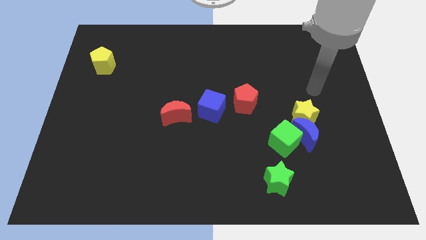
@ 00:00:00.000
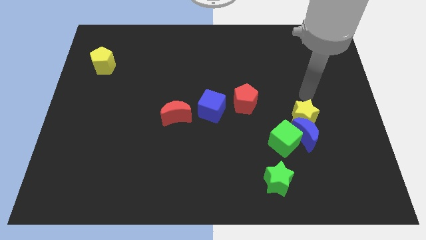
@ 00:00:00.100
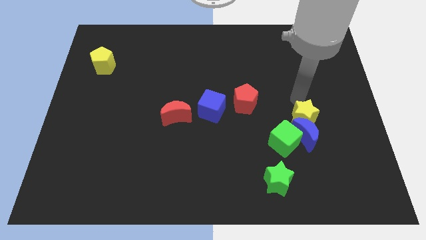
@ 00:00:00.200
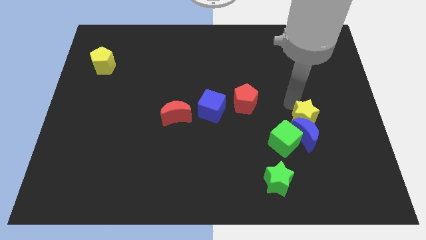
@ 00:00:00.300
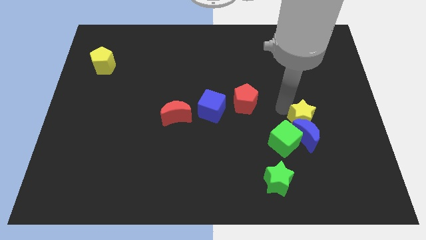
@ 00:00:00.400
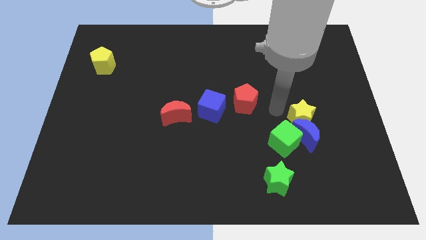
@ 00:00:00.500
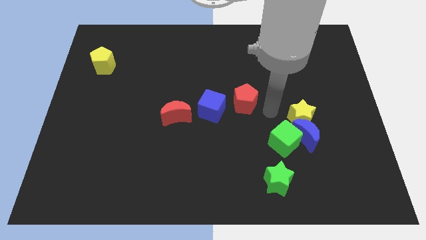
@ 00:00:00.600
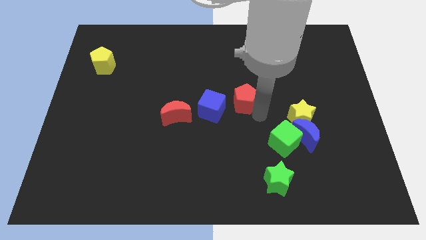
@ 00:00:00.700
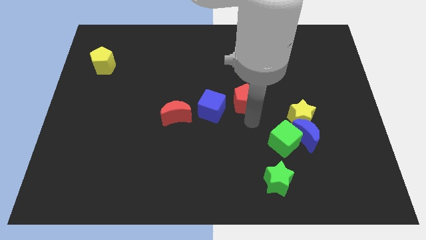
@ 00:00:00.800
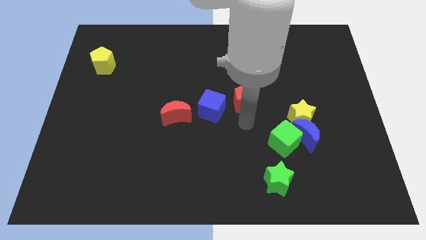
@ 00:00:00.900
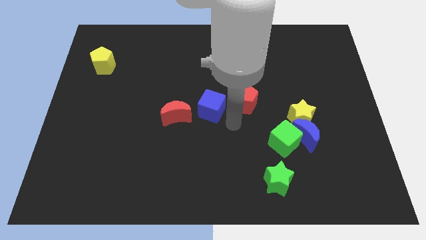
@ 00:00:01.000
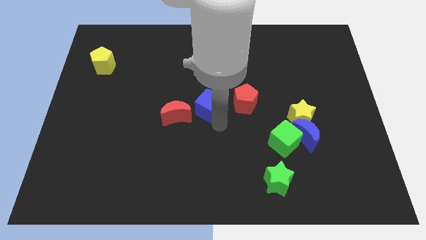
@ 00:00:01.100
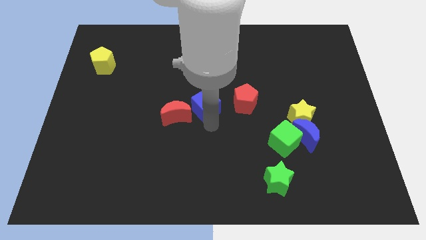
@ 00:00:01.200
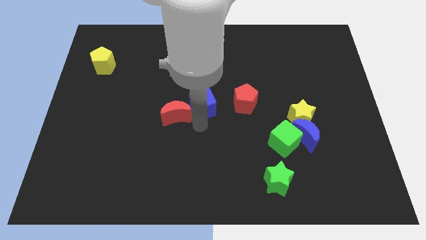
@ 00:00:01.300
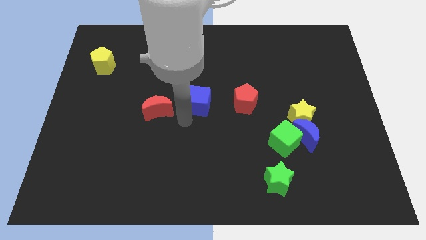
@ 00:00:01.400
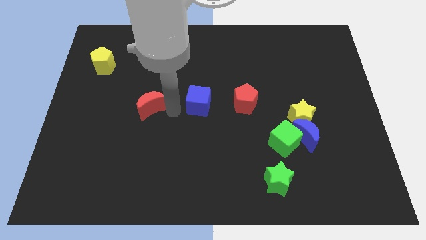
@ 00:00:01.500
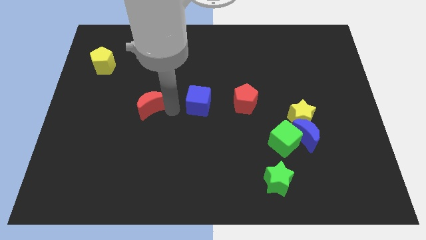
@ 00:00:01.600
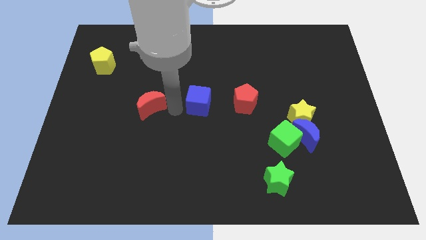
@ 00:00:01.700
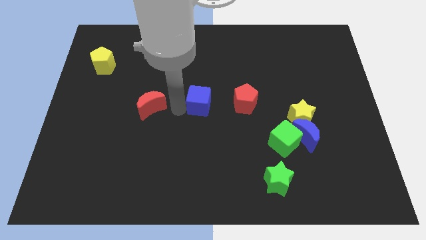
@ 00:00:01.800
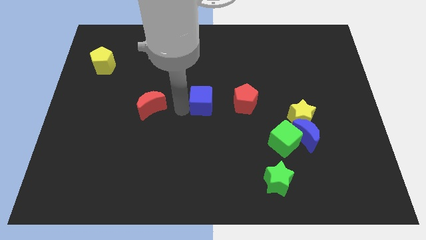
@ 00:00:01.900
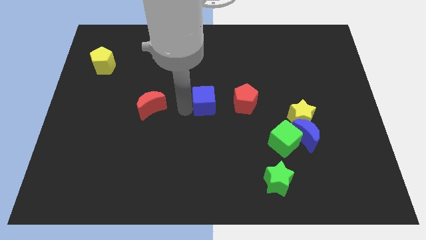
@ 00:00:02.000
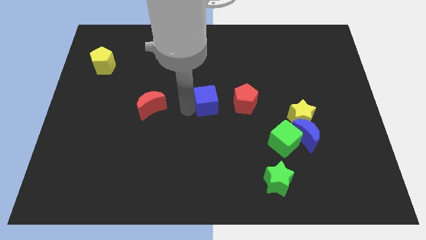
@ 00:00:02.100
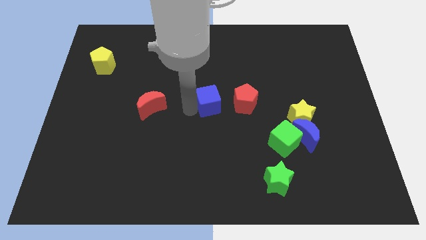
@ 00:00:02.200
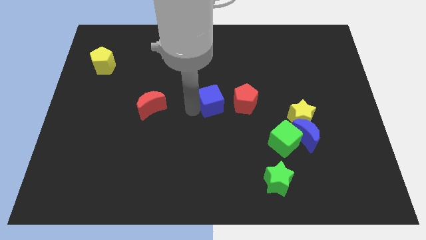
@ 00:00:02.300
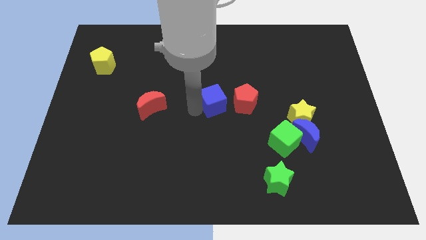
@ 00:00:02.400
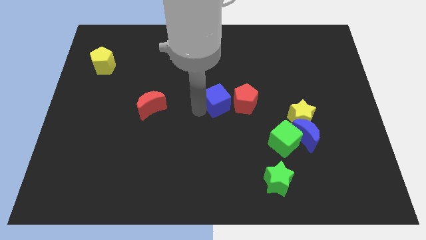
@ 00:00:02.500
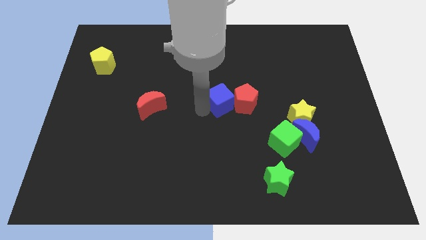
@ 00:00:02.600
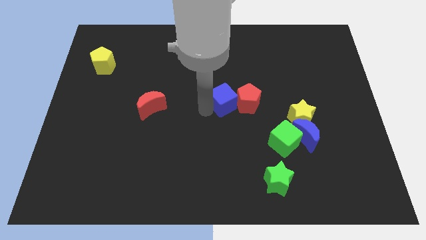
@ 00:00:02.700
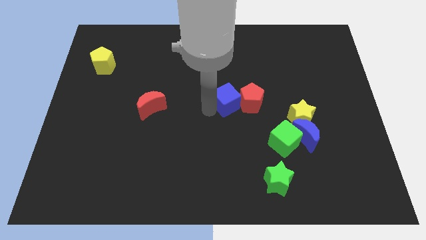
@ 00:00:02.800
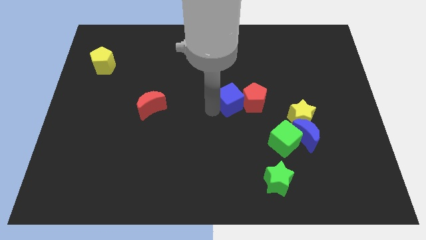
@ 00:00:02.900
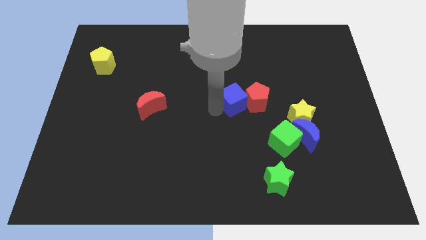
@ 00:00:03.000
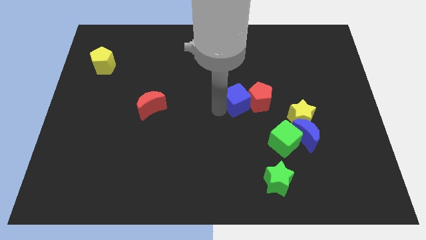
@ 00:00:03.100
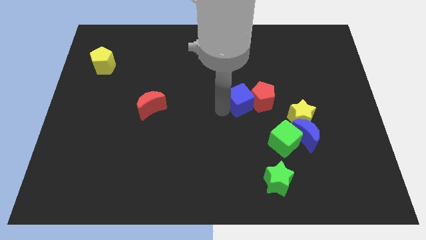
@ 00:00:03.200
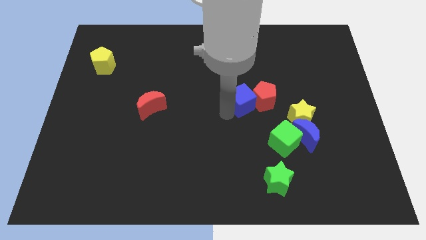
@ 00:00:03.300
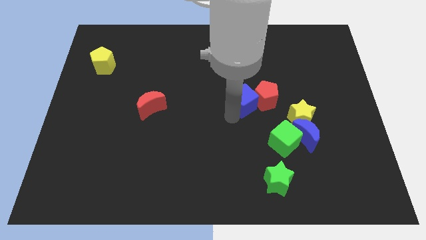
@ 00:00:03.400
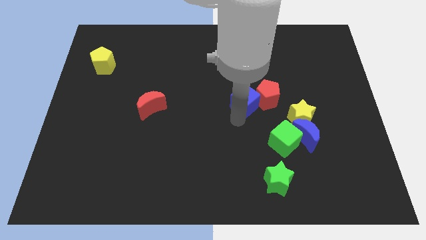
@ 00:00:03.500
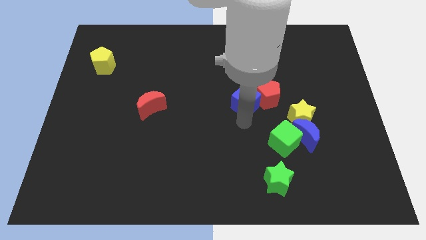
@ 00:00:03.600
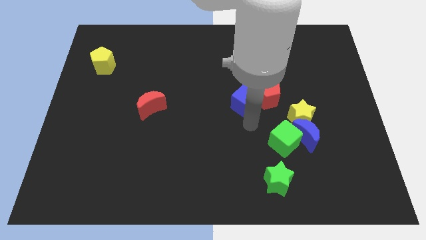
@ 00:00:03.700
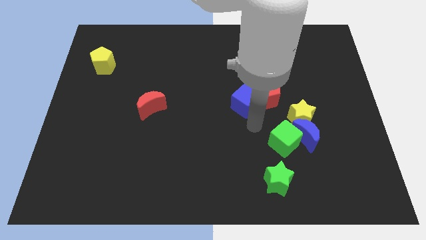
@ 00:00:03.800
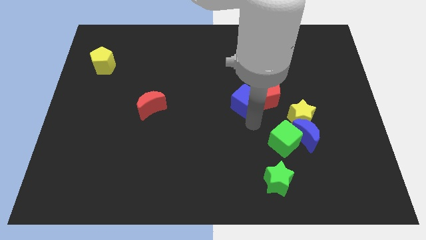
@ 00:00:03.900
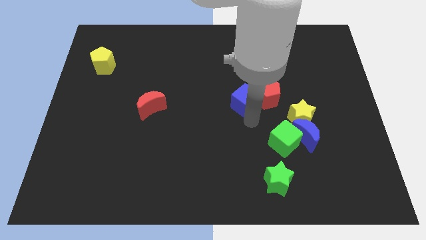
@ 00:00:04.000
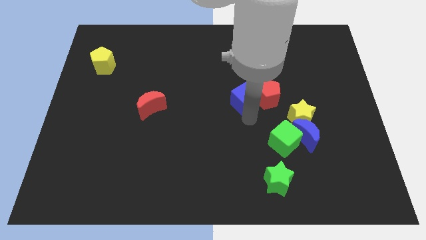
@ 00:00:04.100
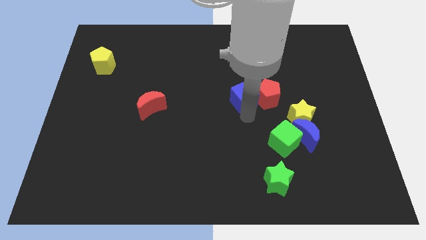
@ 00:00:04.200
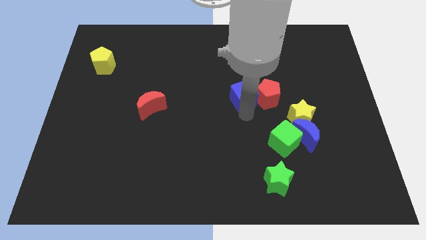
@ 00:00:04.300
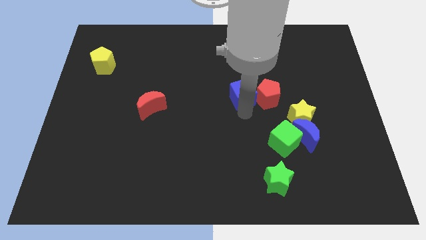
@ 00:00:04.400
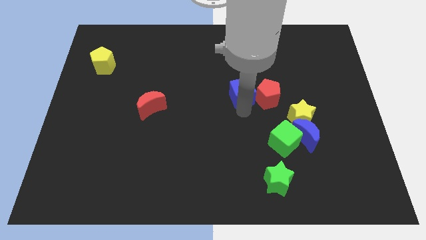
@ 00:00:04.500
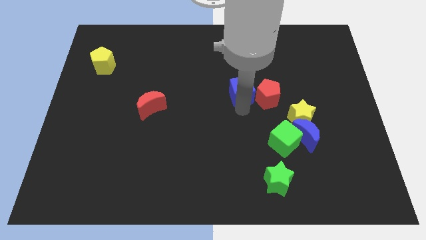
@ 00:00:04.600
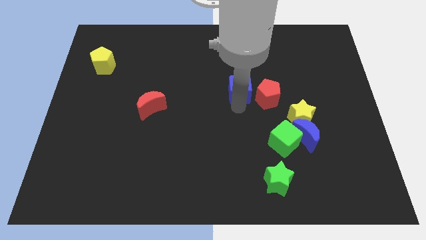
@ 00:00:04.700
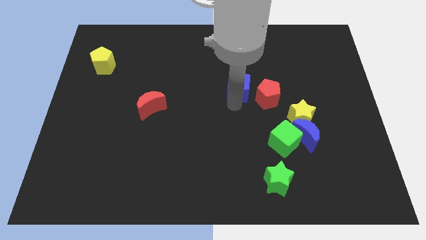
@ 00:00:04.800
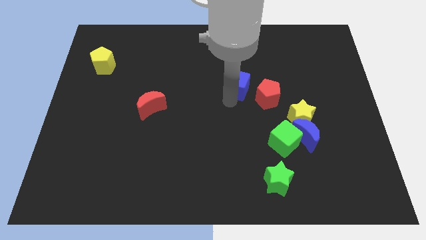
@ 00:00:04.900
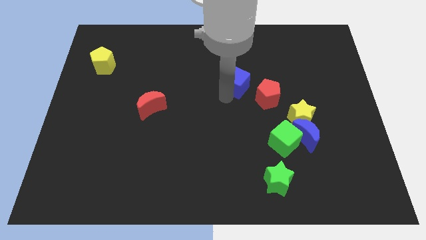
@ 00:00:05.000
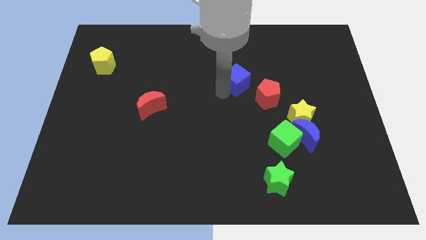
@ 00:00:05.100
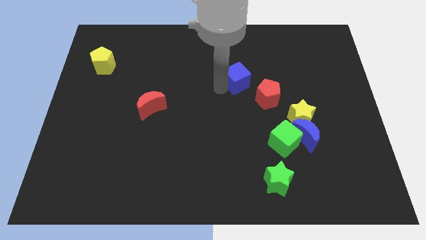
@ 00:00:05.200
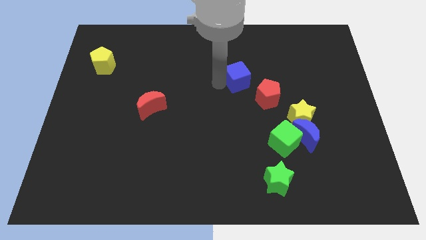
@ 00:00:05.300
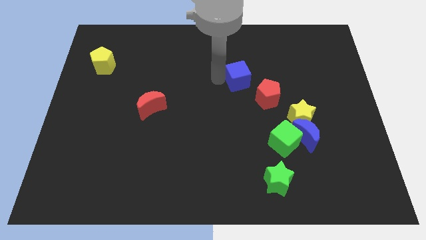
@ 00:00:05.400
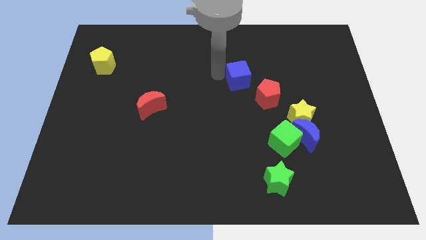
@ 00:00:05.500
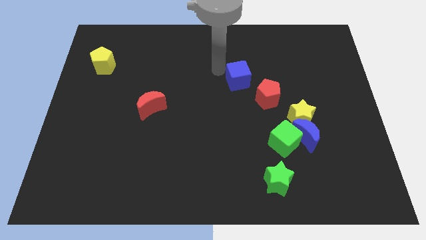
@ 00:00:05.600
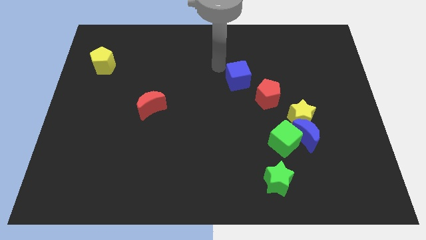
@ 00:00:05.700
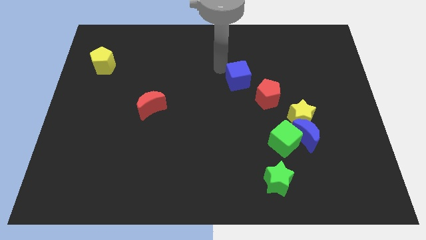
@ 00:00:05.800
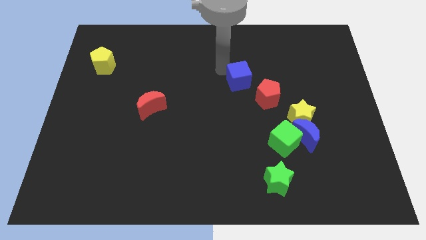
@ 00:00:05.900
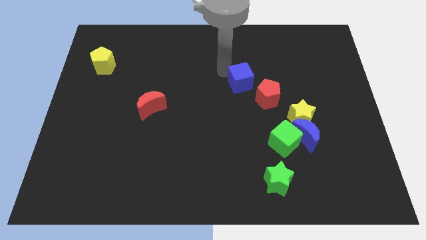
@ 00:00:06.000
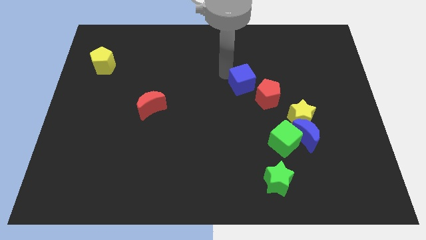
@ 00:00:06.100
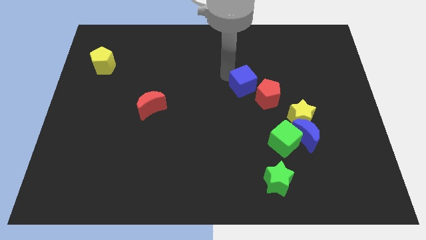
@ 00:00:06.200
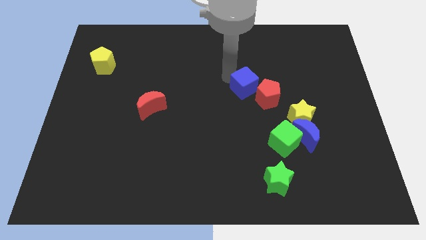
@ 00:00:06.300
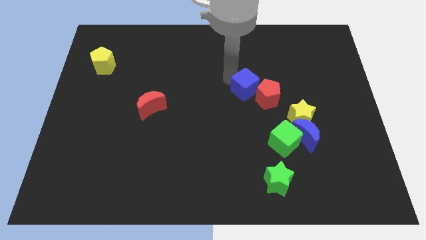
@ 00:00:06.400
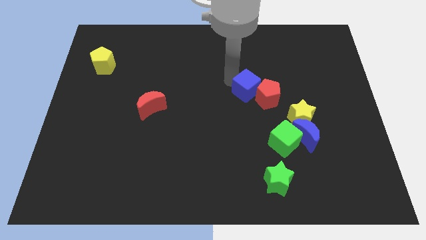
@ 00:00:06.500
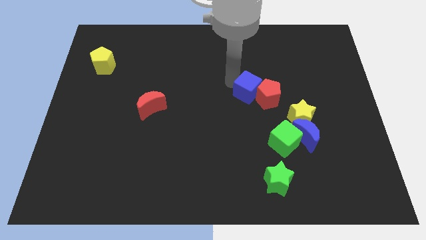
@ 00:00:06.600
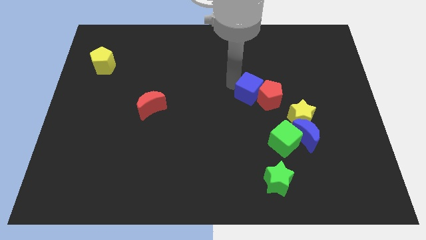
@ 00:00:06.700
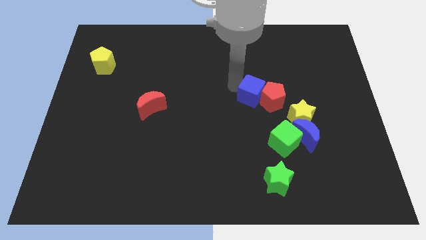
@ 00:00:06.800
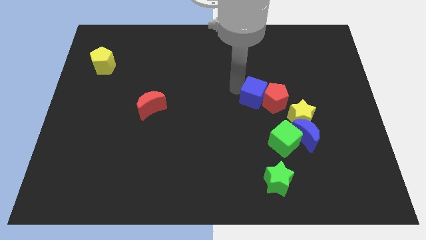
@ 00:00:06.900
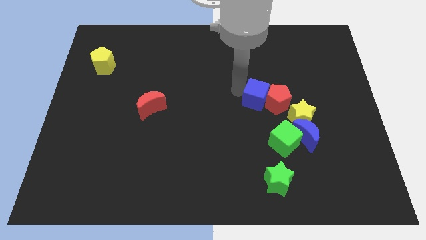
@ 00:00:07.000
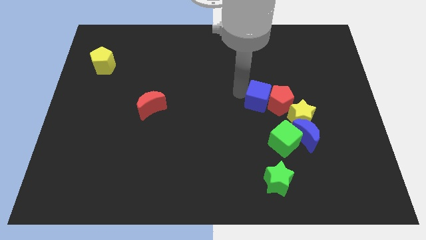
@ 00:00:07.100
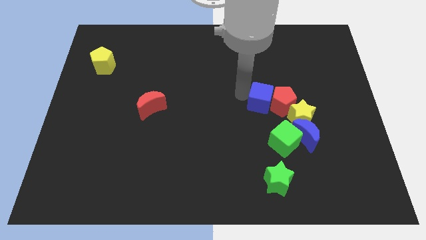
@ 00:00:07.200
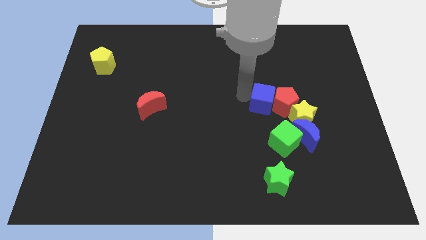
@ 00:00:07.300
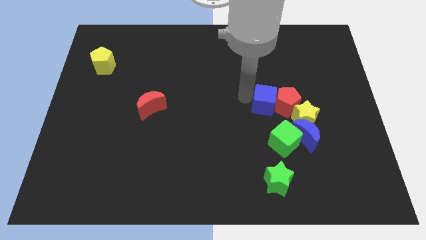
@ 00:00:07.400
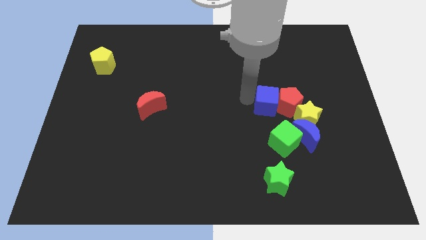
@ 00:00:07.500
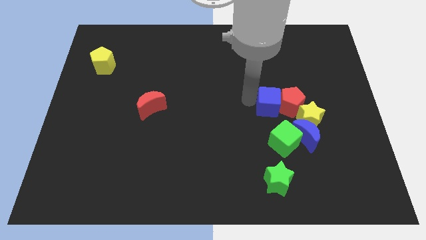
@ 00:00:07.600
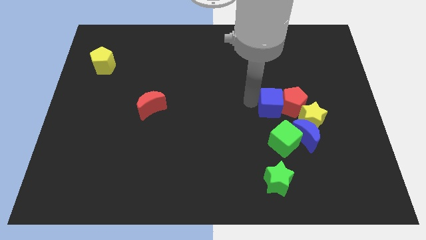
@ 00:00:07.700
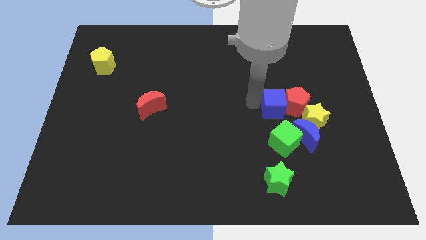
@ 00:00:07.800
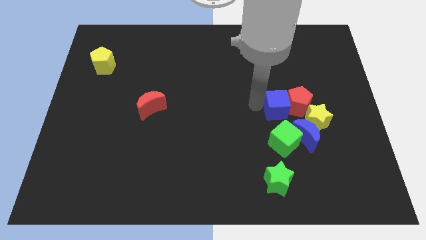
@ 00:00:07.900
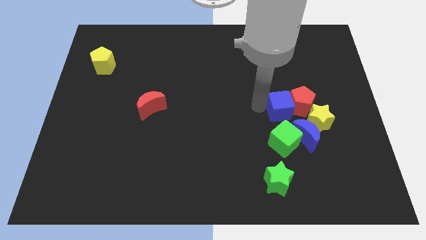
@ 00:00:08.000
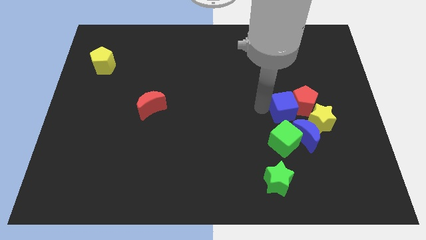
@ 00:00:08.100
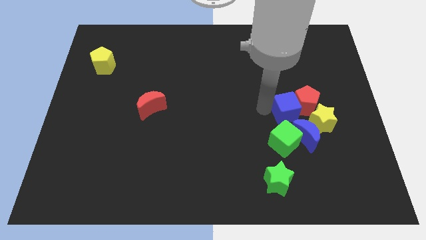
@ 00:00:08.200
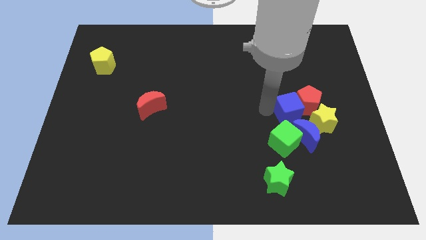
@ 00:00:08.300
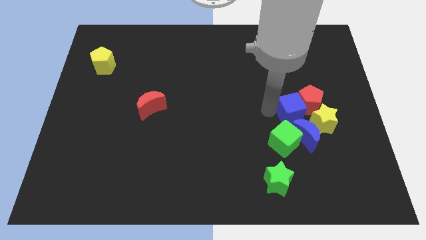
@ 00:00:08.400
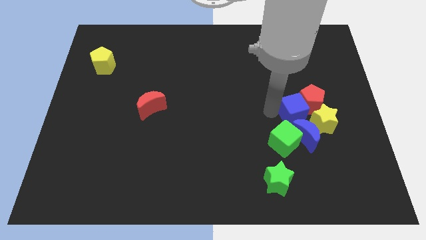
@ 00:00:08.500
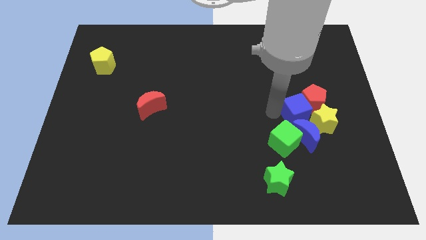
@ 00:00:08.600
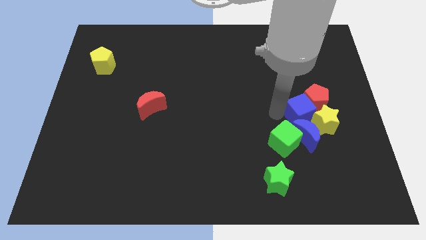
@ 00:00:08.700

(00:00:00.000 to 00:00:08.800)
slide the blue cube to the top right of the blue moon
